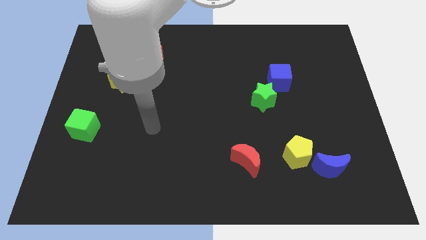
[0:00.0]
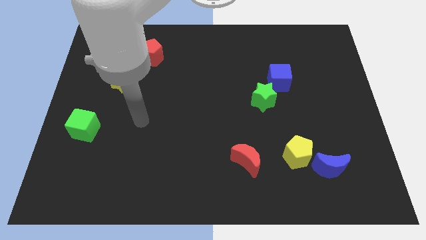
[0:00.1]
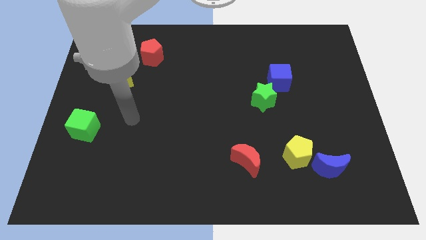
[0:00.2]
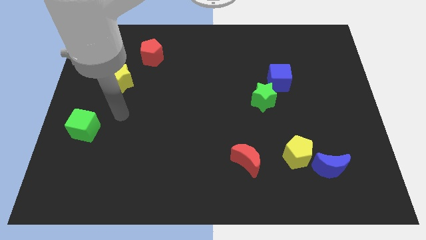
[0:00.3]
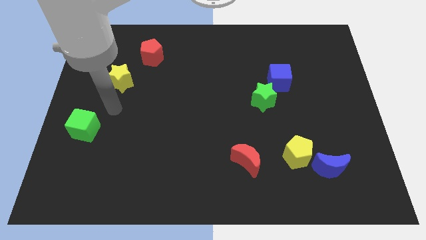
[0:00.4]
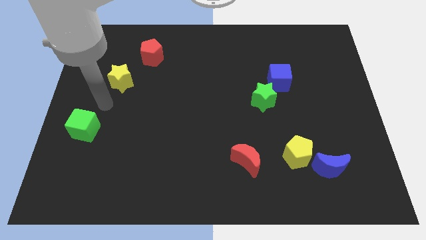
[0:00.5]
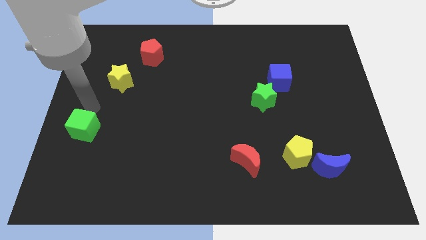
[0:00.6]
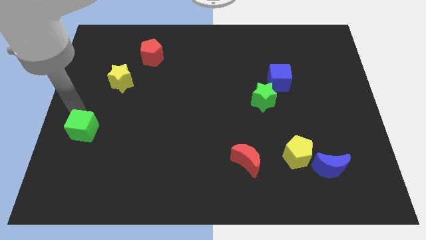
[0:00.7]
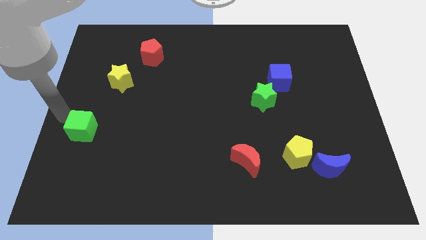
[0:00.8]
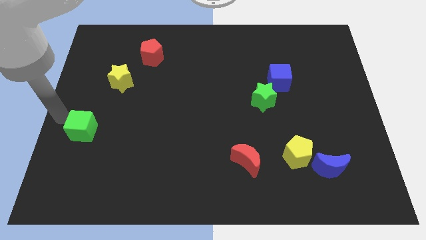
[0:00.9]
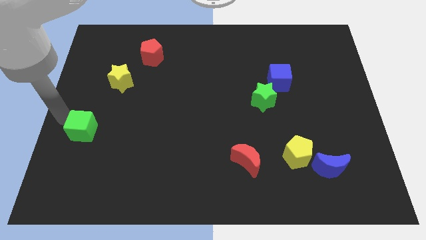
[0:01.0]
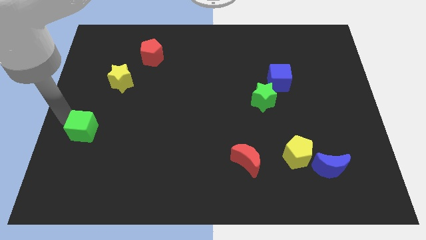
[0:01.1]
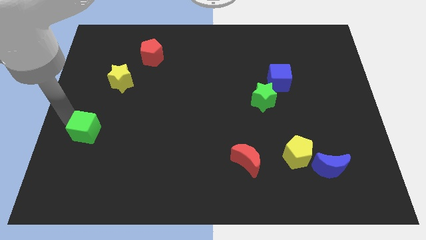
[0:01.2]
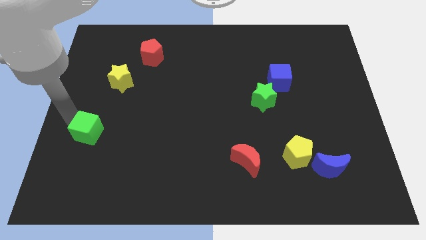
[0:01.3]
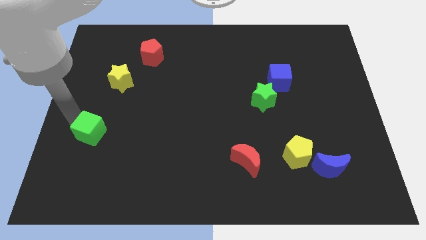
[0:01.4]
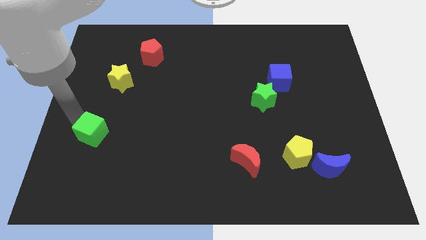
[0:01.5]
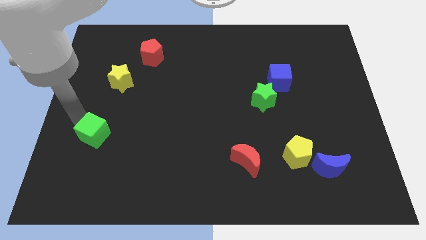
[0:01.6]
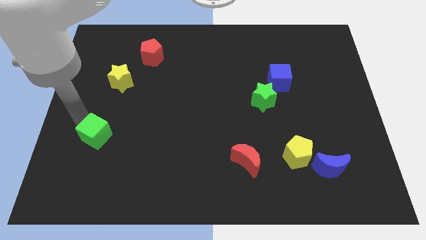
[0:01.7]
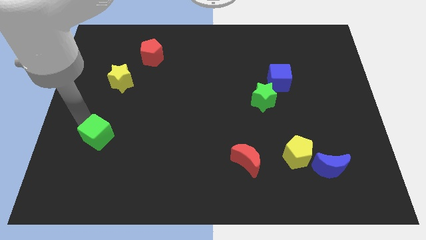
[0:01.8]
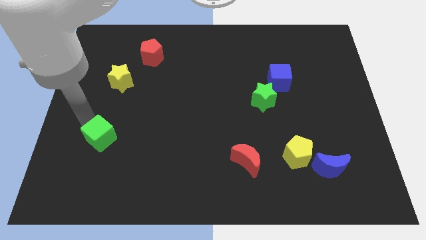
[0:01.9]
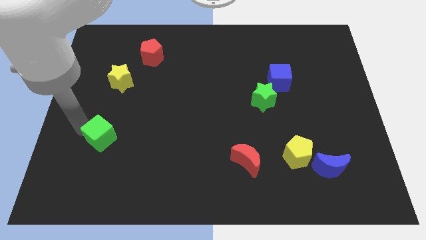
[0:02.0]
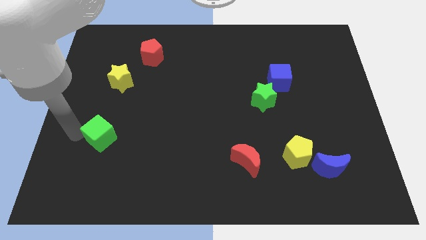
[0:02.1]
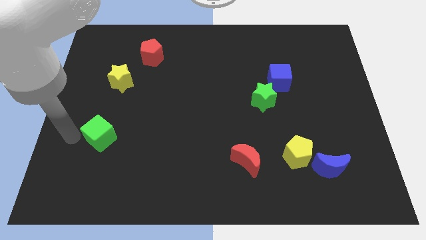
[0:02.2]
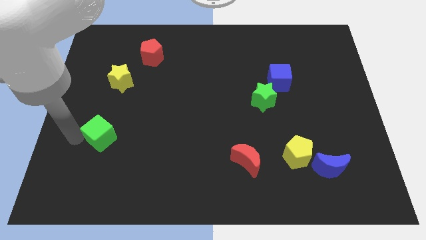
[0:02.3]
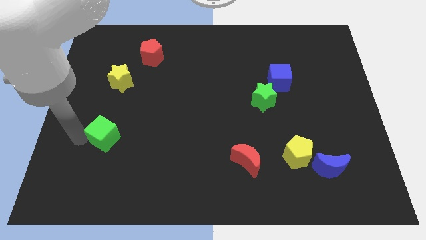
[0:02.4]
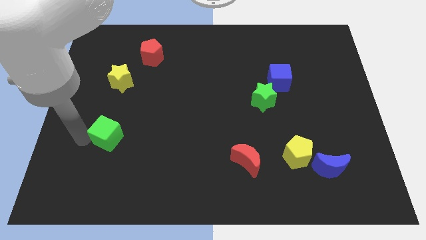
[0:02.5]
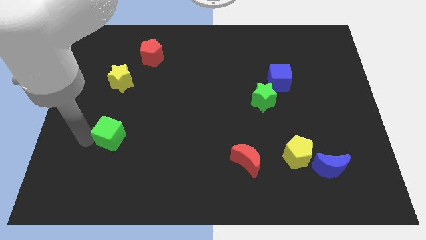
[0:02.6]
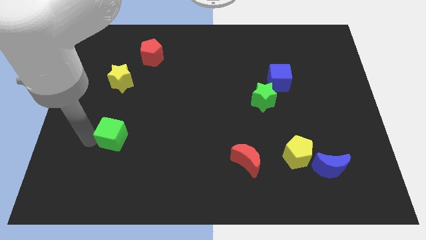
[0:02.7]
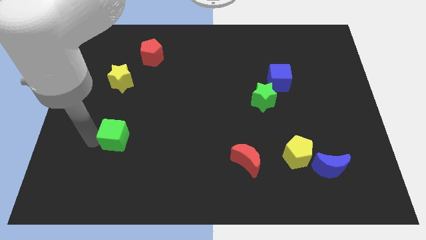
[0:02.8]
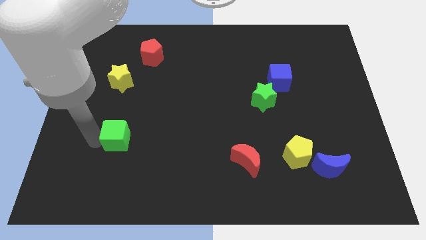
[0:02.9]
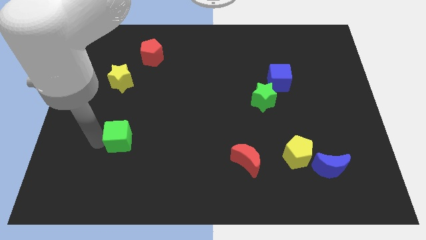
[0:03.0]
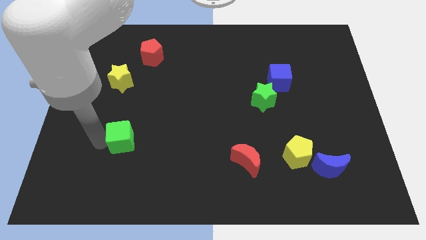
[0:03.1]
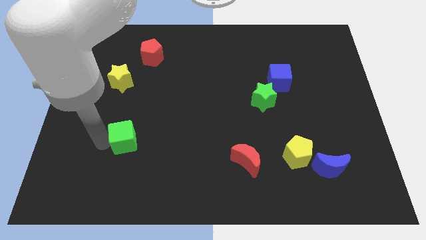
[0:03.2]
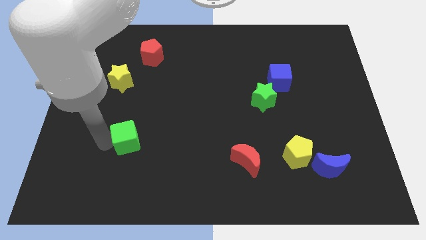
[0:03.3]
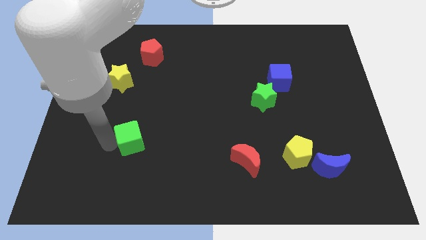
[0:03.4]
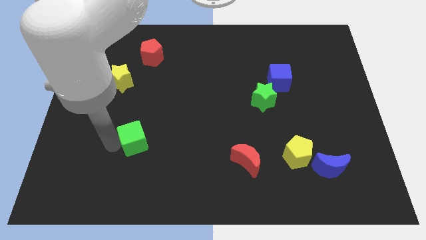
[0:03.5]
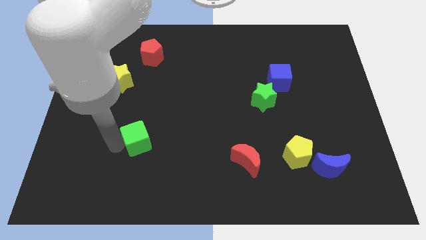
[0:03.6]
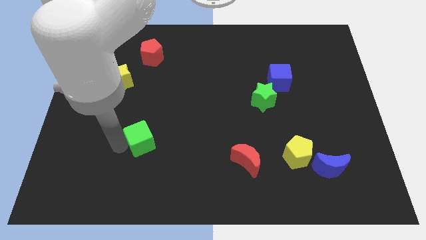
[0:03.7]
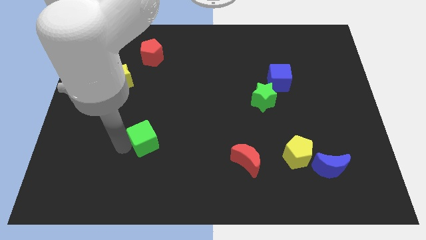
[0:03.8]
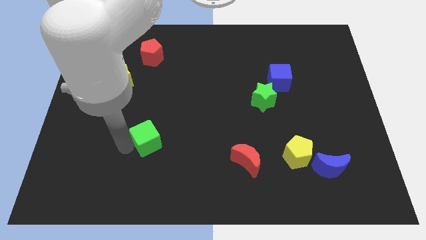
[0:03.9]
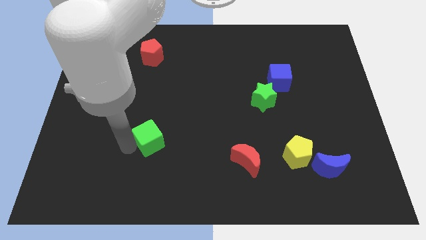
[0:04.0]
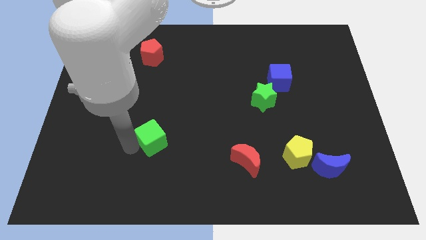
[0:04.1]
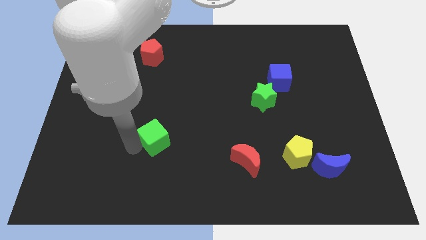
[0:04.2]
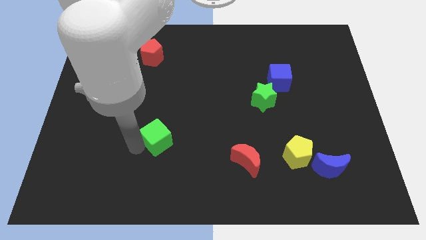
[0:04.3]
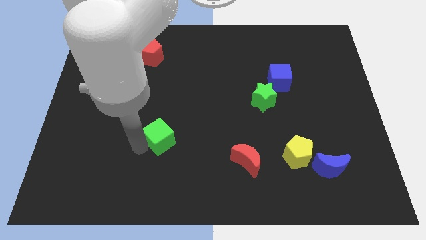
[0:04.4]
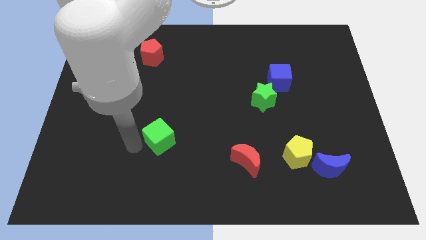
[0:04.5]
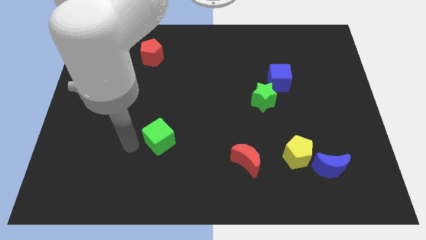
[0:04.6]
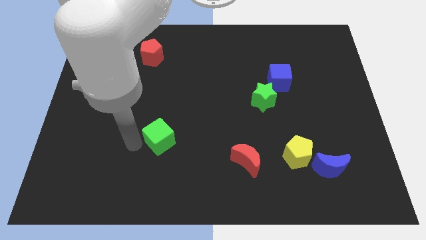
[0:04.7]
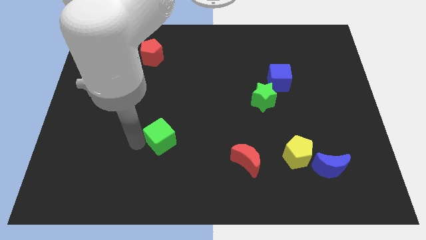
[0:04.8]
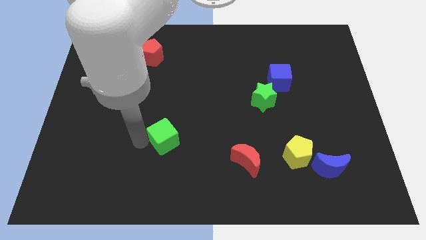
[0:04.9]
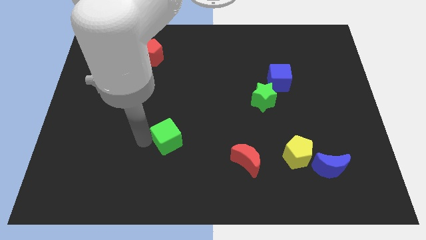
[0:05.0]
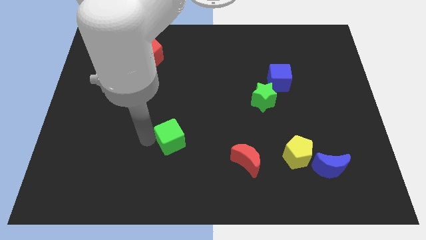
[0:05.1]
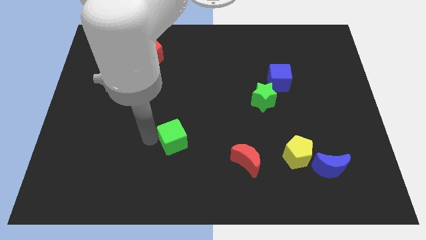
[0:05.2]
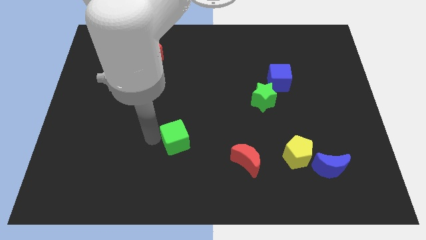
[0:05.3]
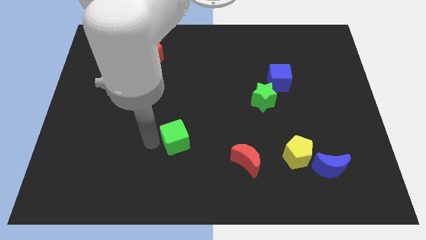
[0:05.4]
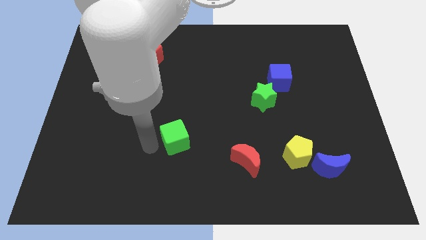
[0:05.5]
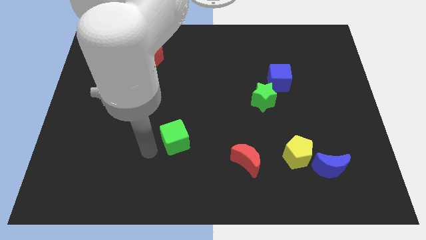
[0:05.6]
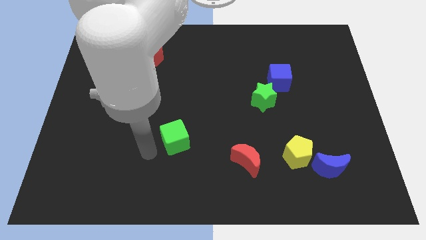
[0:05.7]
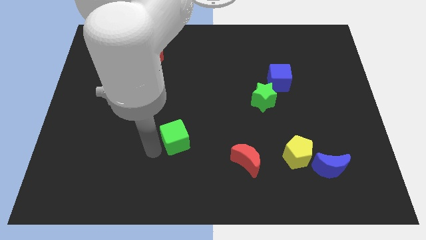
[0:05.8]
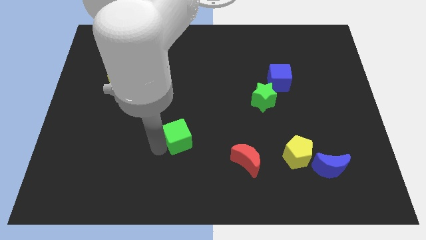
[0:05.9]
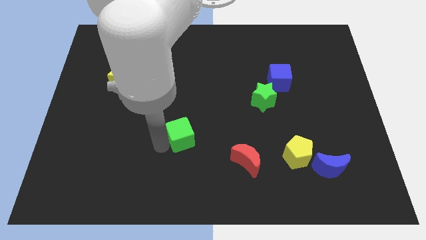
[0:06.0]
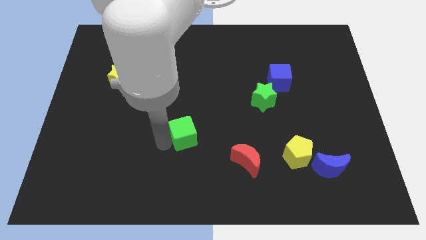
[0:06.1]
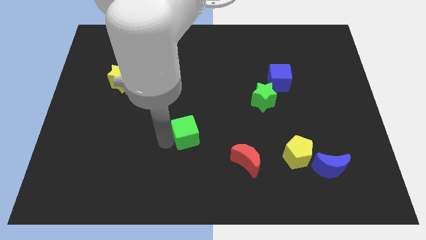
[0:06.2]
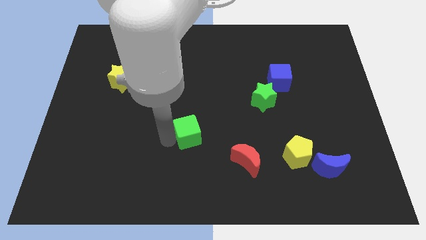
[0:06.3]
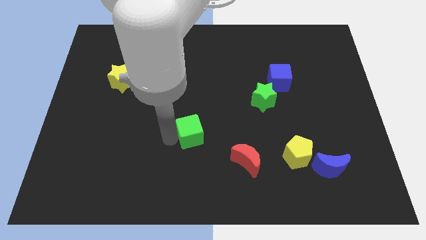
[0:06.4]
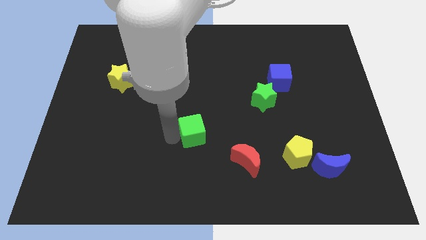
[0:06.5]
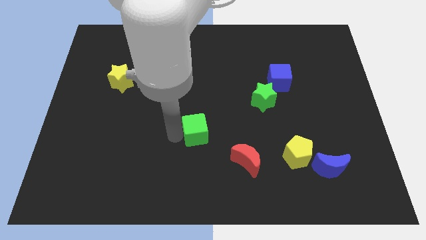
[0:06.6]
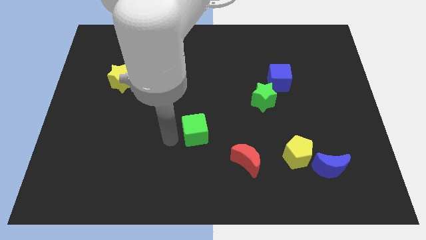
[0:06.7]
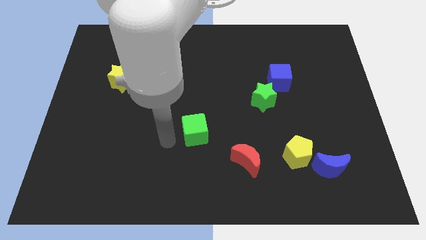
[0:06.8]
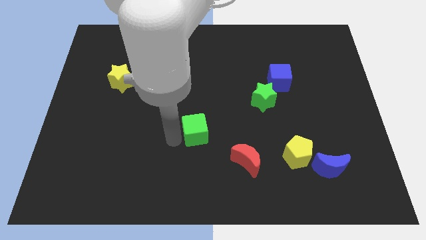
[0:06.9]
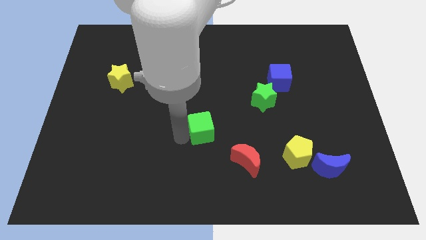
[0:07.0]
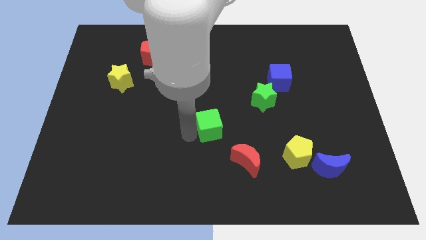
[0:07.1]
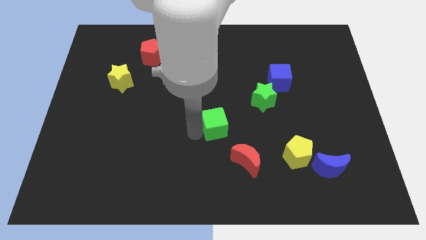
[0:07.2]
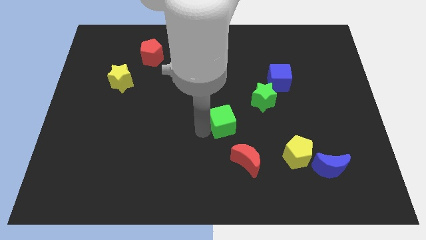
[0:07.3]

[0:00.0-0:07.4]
put the green cube diagonally down and to the left of the green star

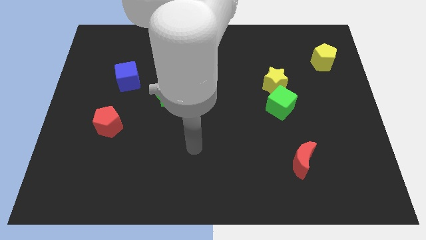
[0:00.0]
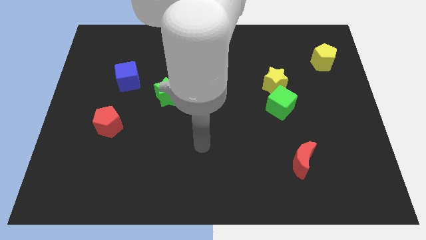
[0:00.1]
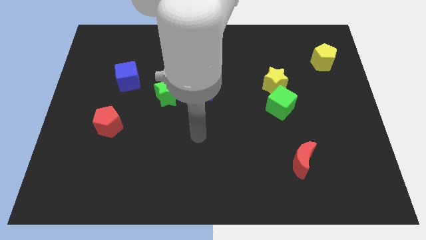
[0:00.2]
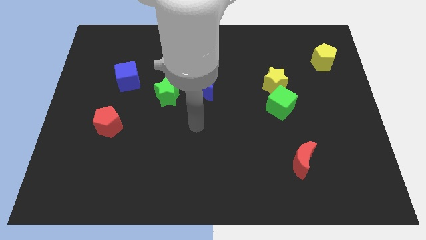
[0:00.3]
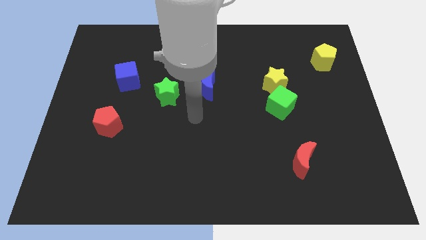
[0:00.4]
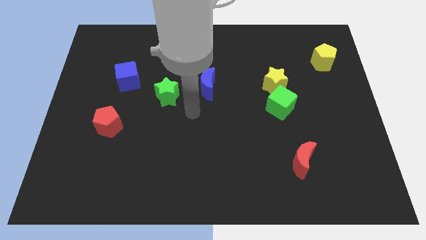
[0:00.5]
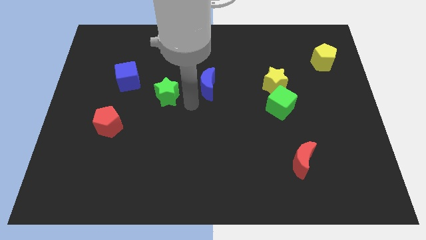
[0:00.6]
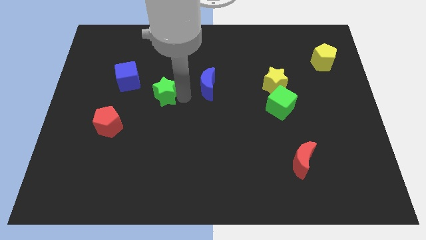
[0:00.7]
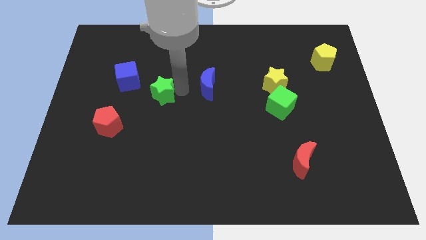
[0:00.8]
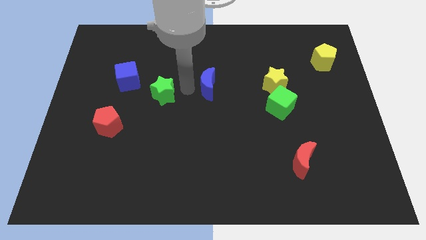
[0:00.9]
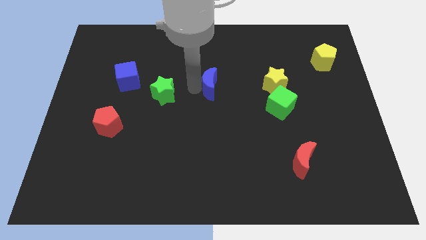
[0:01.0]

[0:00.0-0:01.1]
push the blue moon to the left of the yellow star
